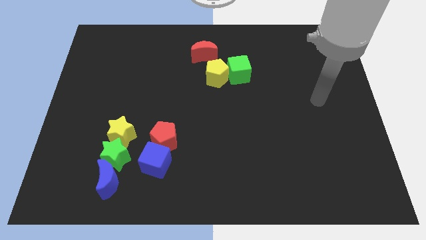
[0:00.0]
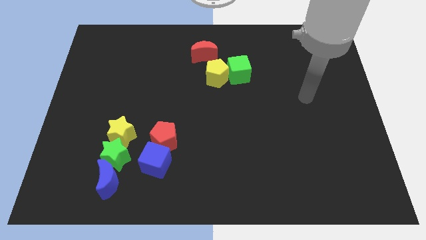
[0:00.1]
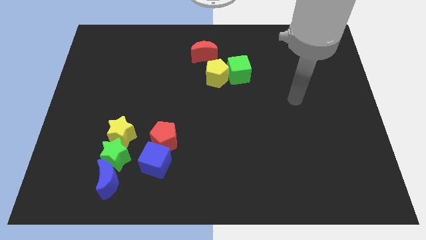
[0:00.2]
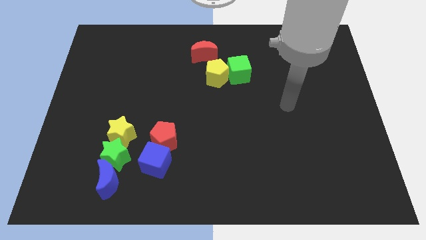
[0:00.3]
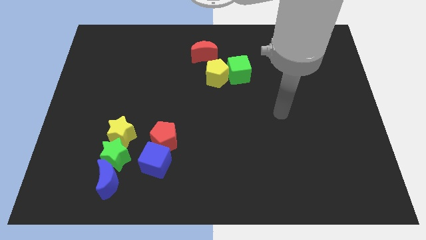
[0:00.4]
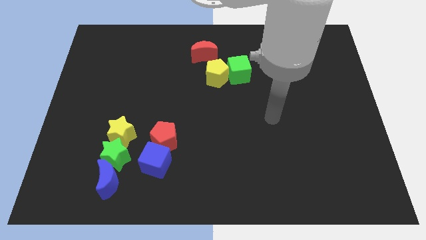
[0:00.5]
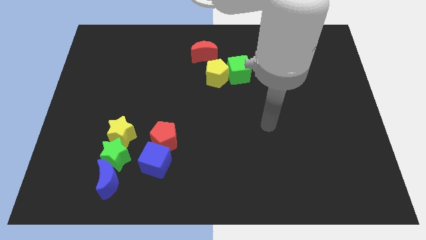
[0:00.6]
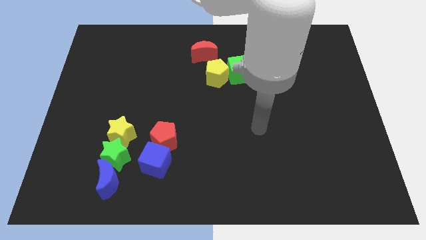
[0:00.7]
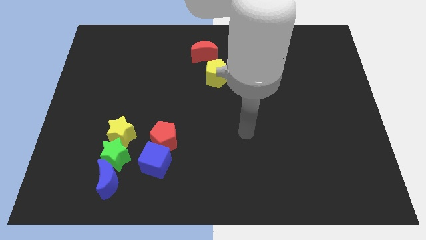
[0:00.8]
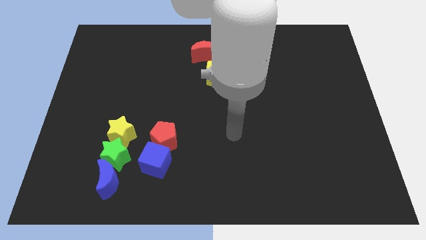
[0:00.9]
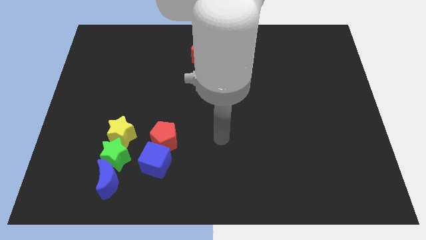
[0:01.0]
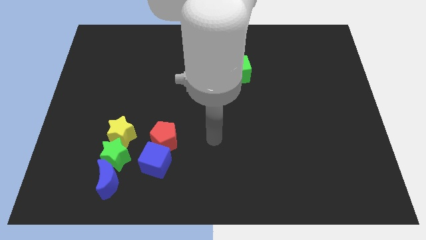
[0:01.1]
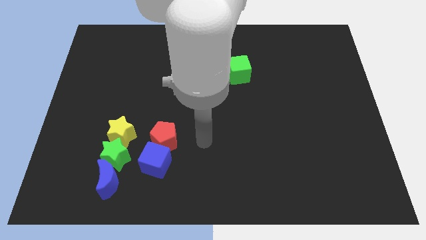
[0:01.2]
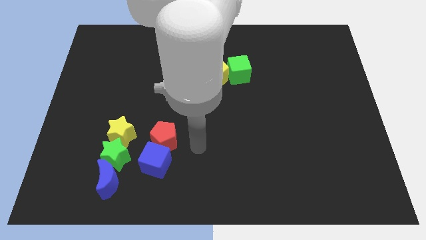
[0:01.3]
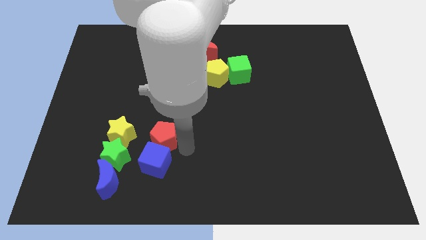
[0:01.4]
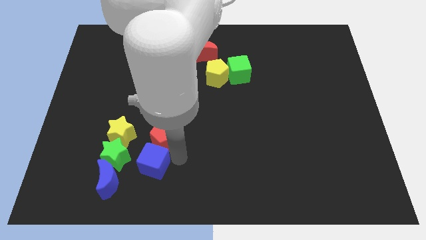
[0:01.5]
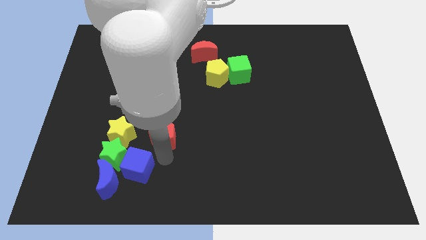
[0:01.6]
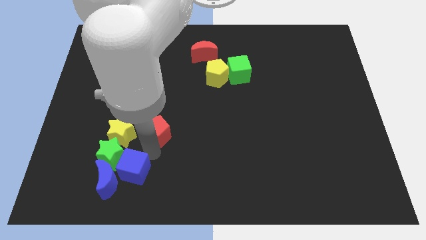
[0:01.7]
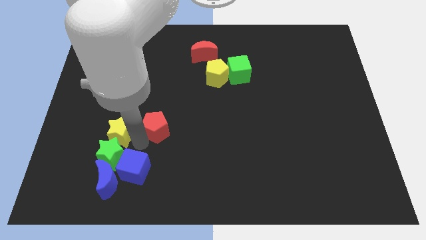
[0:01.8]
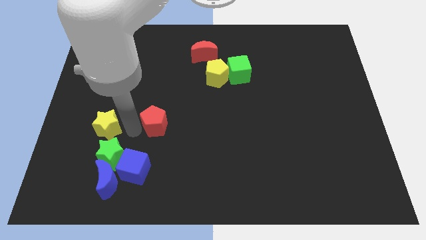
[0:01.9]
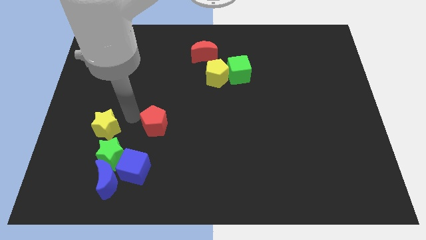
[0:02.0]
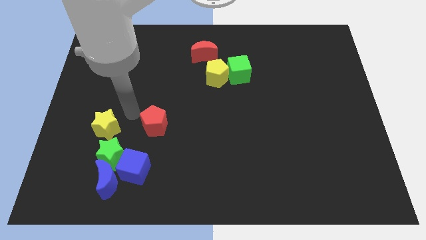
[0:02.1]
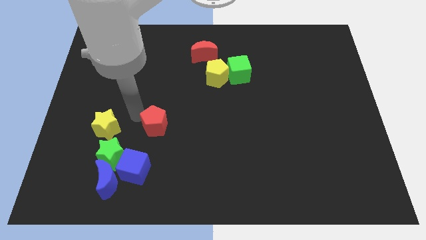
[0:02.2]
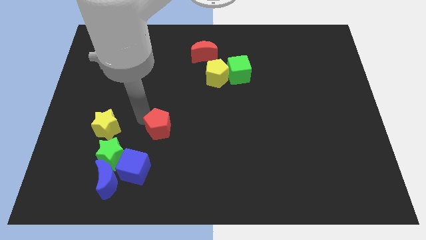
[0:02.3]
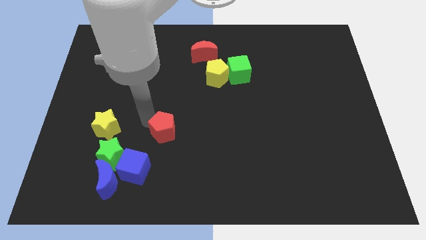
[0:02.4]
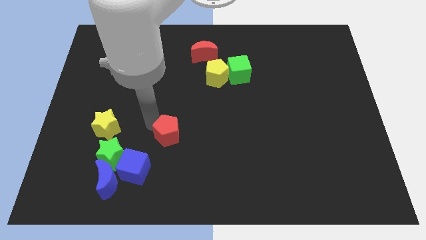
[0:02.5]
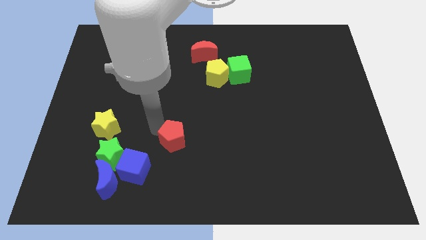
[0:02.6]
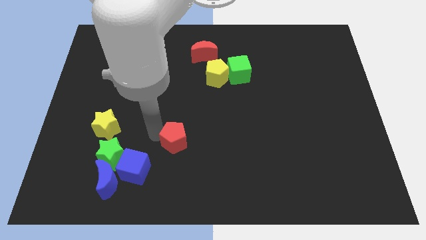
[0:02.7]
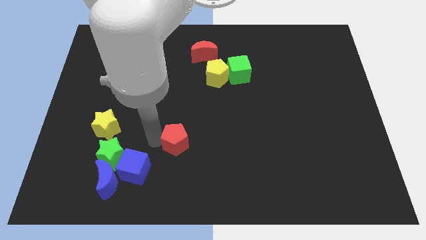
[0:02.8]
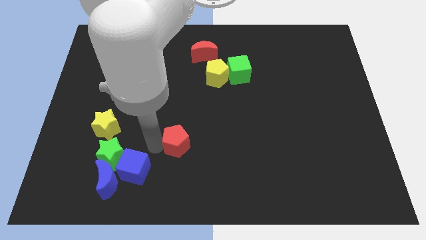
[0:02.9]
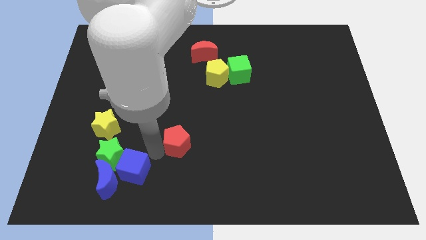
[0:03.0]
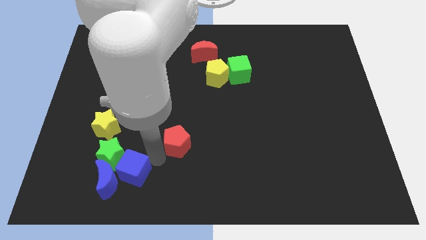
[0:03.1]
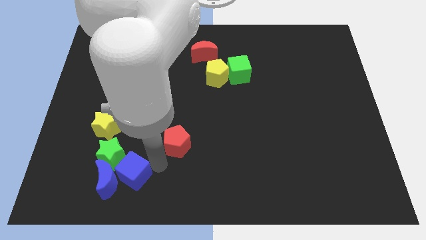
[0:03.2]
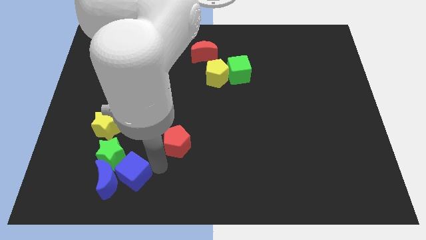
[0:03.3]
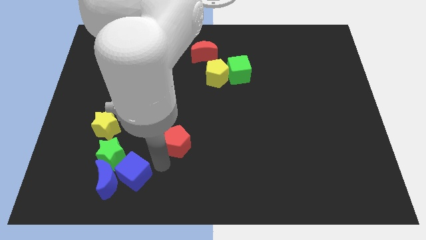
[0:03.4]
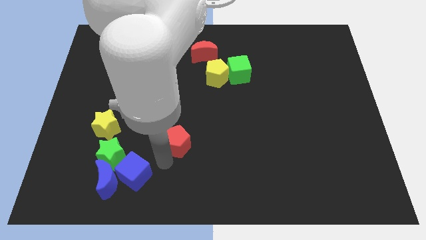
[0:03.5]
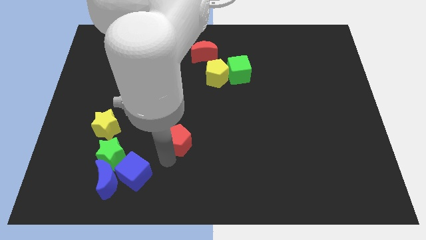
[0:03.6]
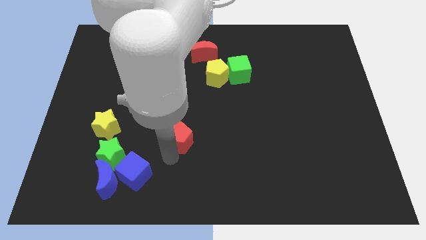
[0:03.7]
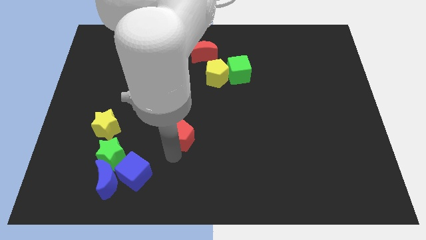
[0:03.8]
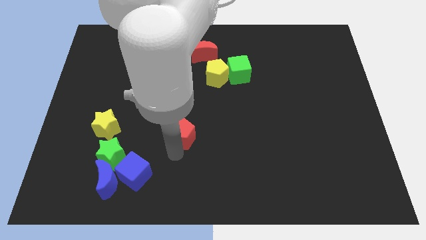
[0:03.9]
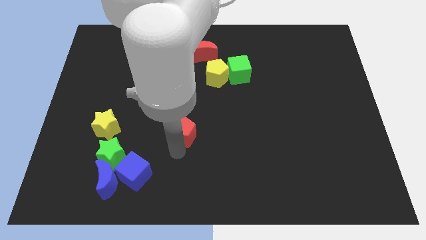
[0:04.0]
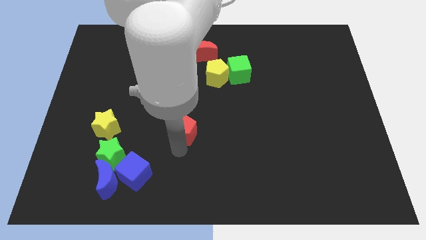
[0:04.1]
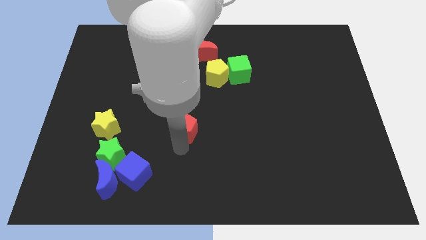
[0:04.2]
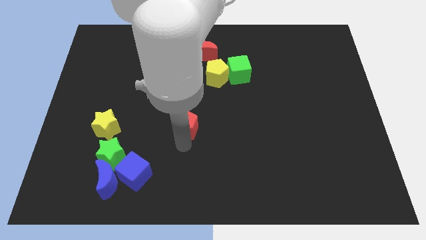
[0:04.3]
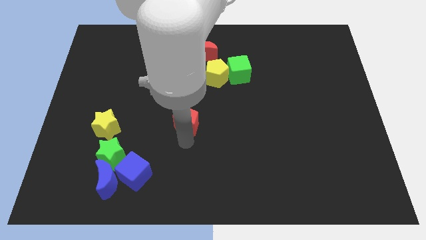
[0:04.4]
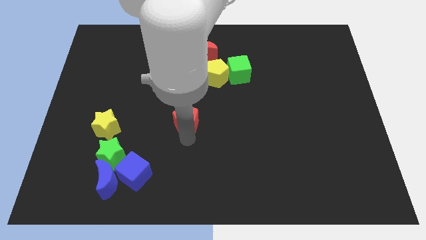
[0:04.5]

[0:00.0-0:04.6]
slightly move the red pentagon diagonally up and right

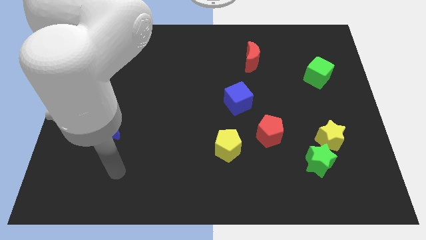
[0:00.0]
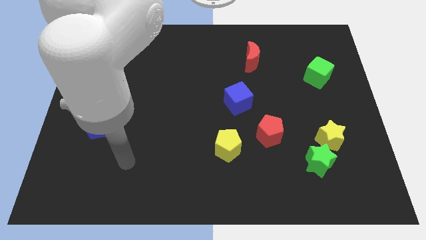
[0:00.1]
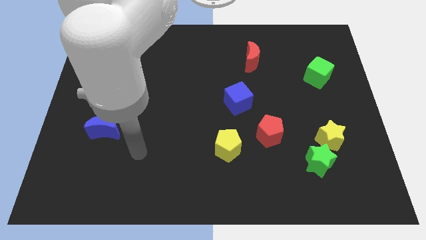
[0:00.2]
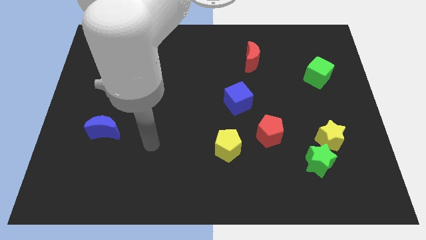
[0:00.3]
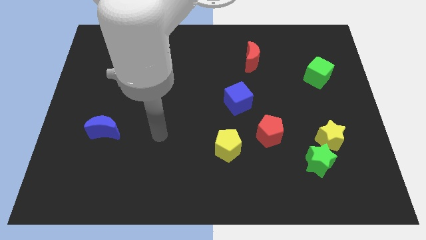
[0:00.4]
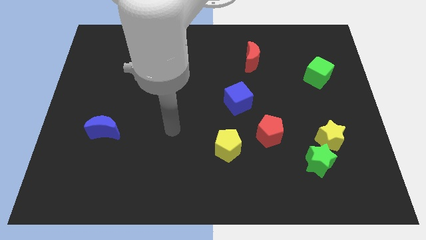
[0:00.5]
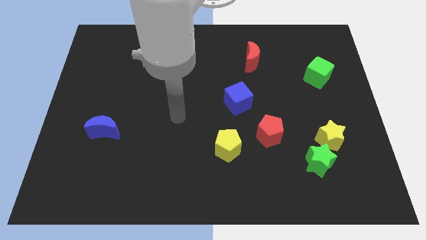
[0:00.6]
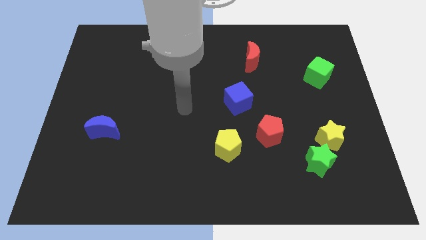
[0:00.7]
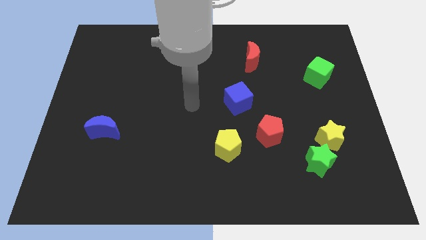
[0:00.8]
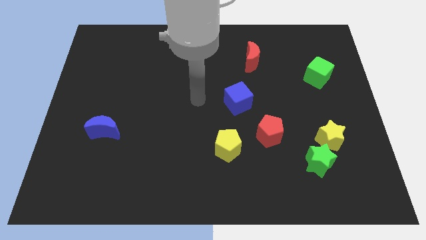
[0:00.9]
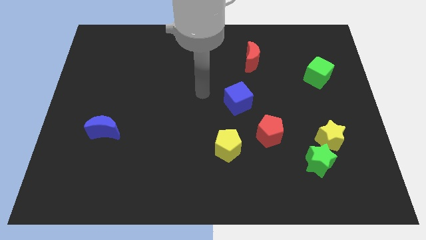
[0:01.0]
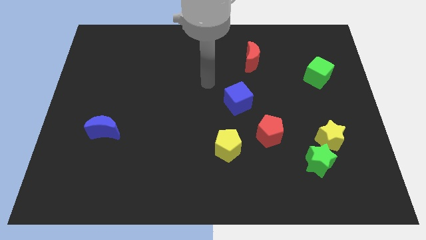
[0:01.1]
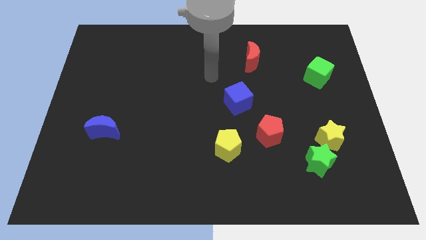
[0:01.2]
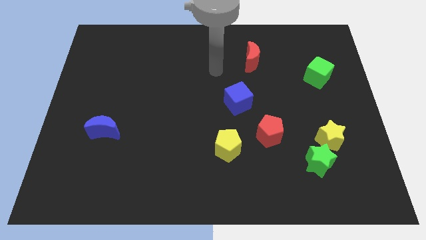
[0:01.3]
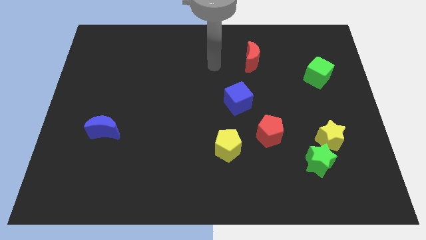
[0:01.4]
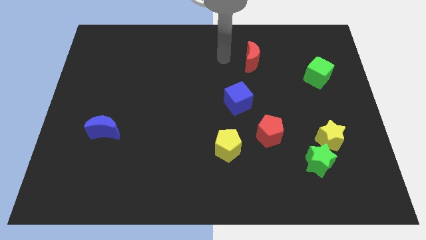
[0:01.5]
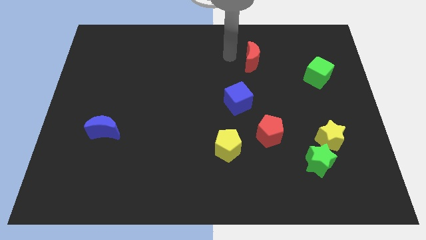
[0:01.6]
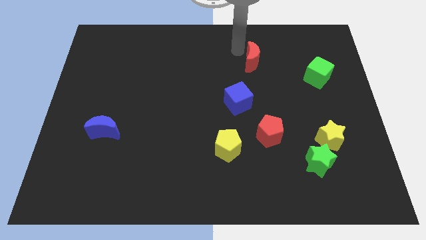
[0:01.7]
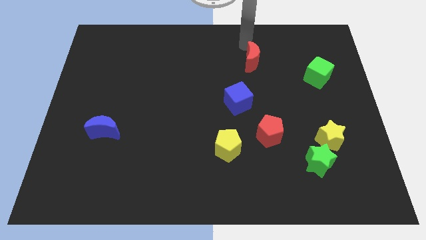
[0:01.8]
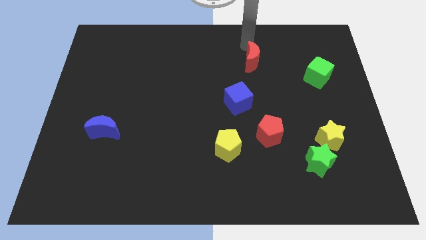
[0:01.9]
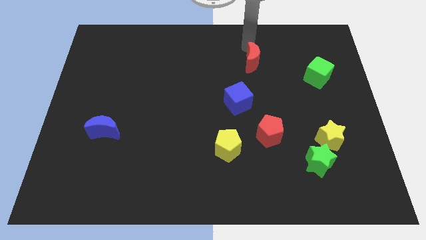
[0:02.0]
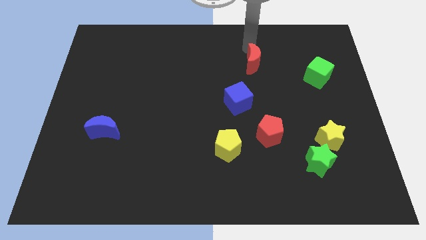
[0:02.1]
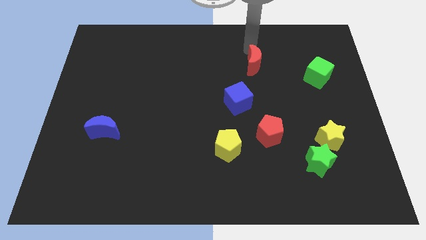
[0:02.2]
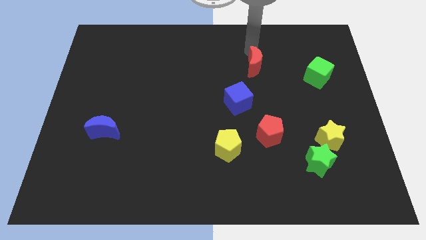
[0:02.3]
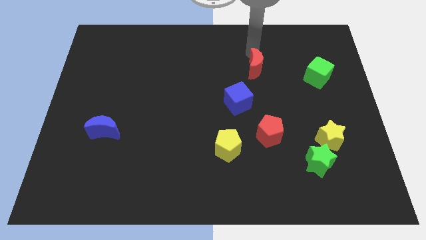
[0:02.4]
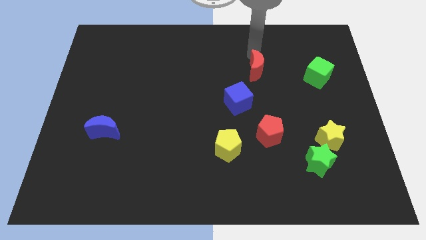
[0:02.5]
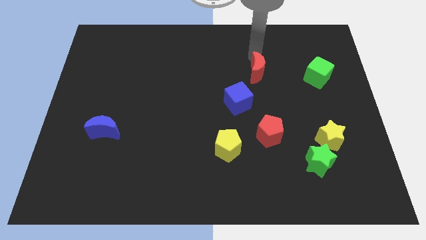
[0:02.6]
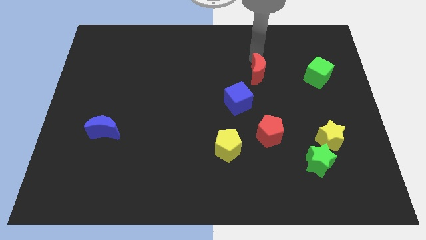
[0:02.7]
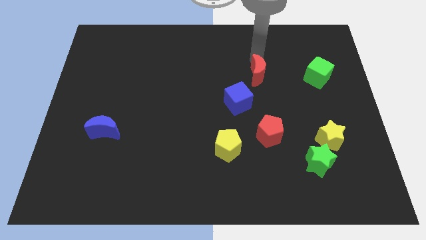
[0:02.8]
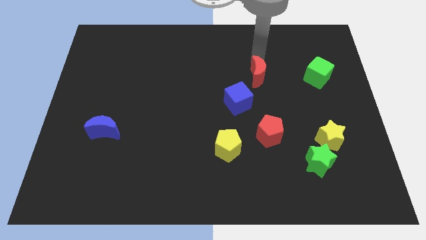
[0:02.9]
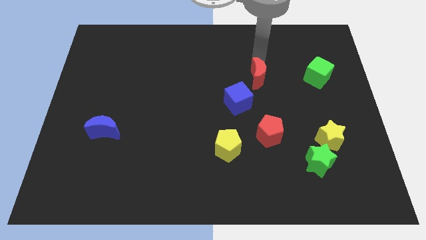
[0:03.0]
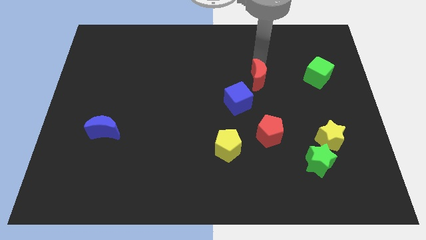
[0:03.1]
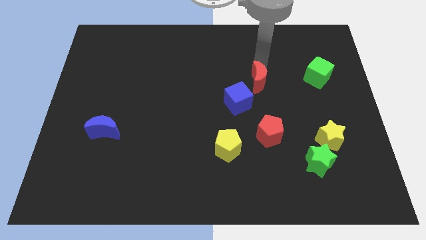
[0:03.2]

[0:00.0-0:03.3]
slightly move the red moon downwards

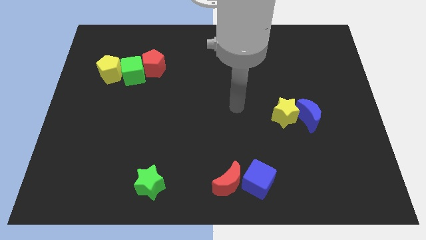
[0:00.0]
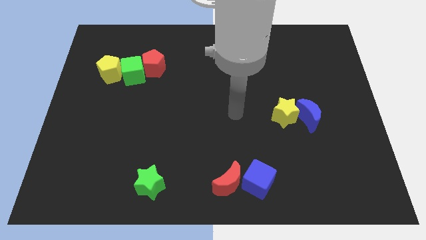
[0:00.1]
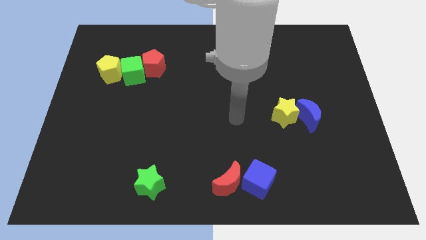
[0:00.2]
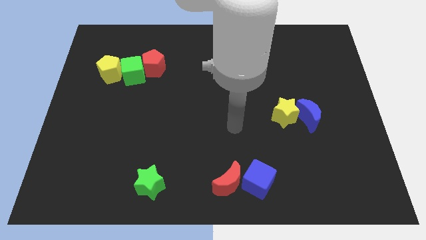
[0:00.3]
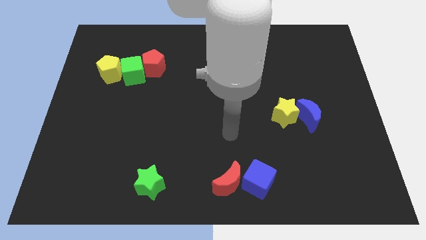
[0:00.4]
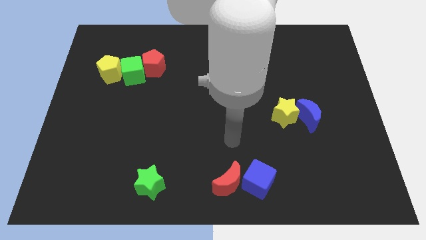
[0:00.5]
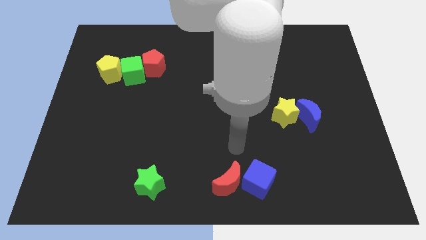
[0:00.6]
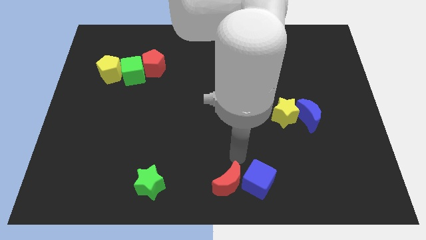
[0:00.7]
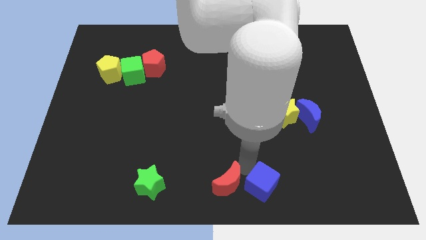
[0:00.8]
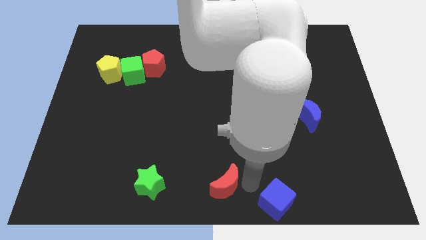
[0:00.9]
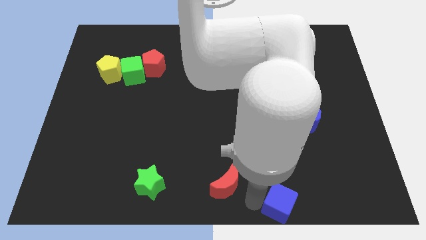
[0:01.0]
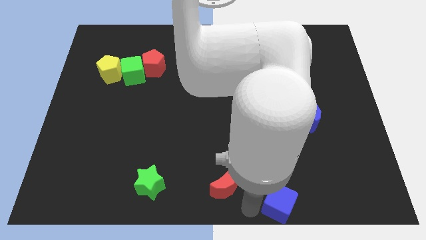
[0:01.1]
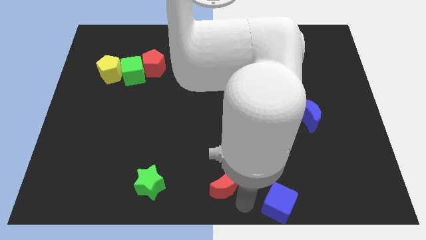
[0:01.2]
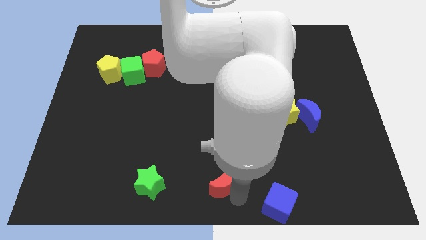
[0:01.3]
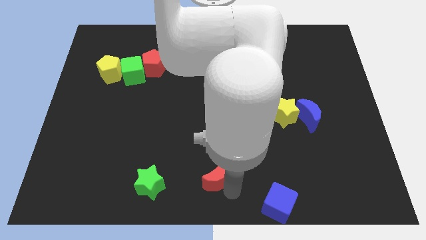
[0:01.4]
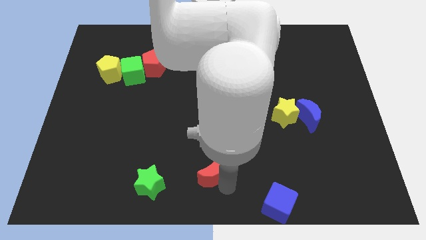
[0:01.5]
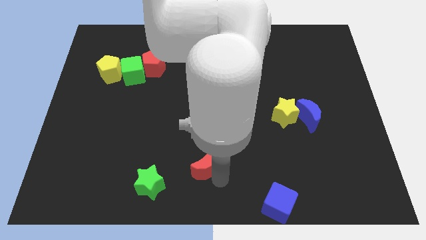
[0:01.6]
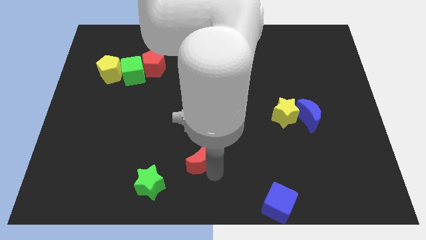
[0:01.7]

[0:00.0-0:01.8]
slightly slide the red moon diagonally upwards and to the left
